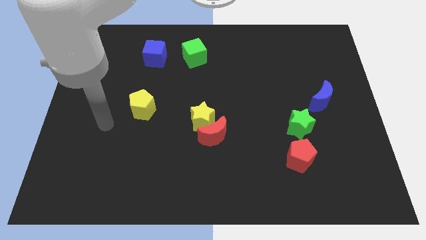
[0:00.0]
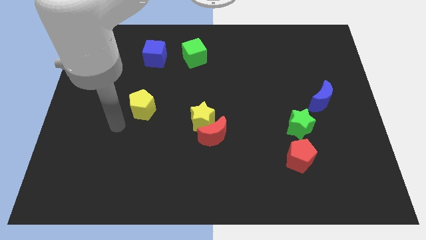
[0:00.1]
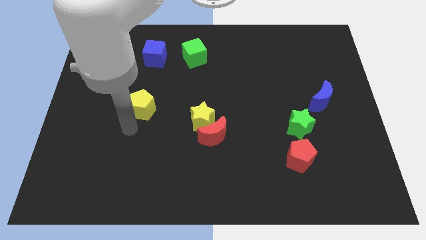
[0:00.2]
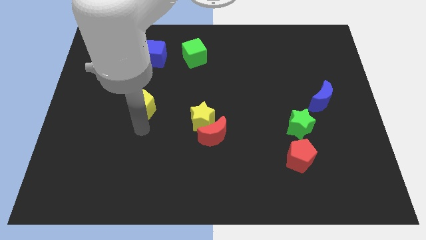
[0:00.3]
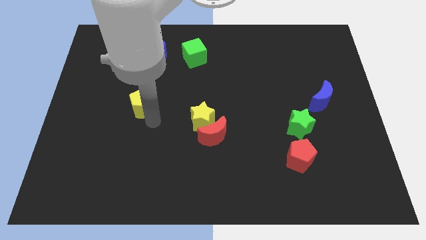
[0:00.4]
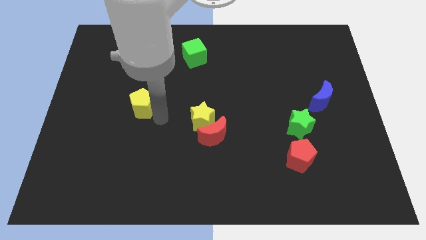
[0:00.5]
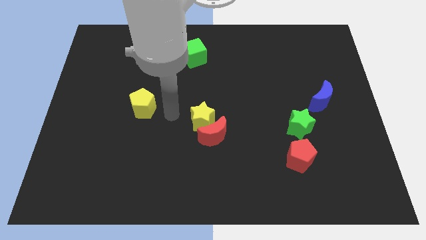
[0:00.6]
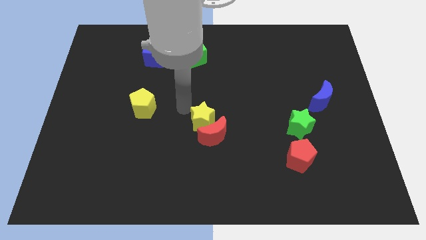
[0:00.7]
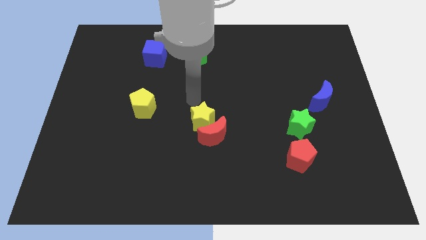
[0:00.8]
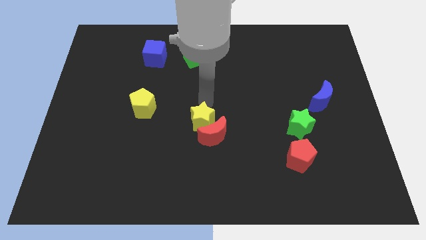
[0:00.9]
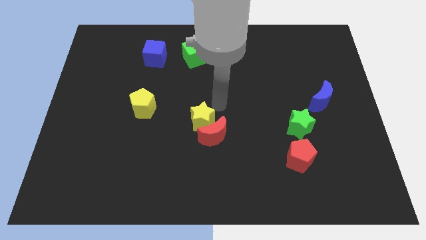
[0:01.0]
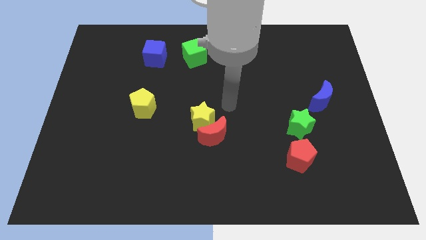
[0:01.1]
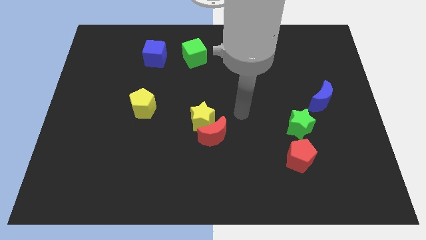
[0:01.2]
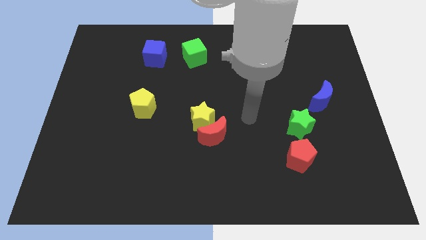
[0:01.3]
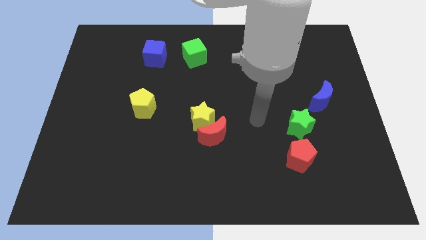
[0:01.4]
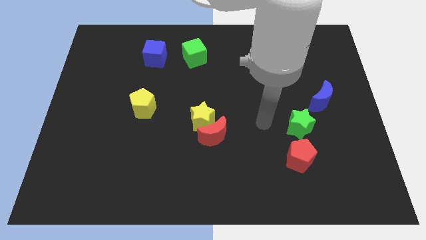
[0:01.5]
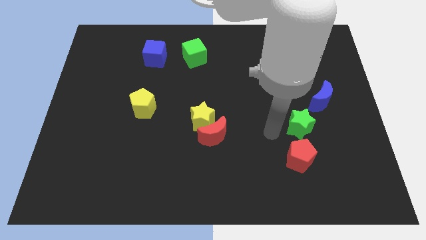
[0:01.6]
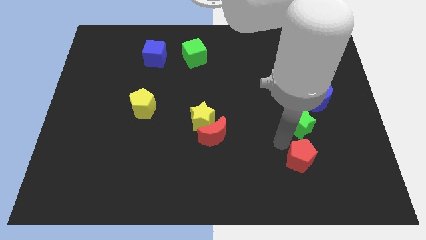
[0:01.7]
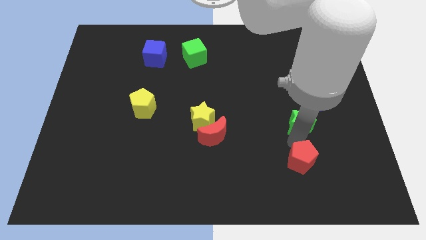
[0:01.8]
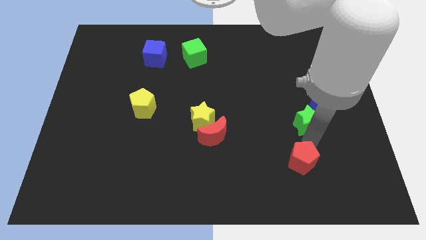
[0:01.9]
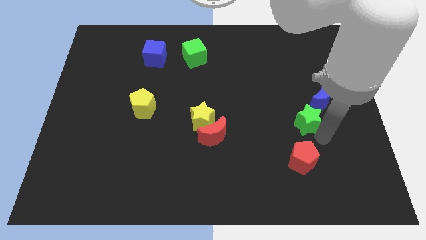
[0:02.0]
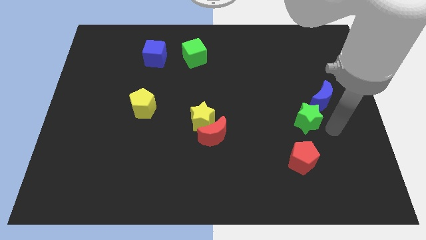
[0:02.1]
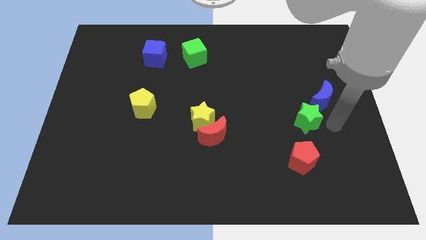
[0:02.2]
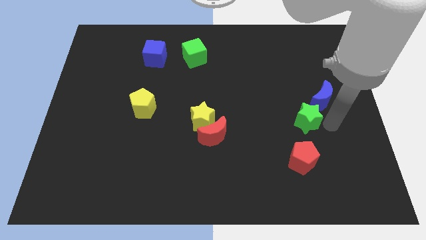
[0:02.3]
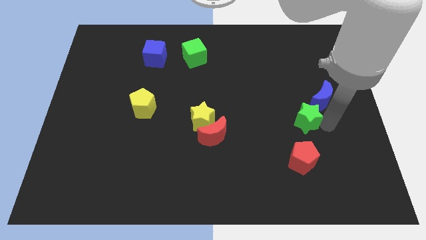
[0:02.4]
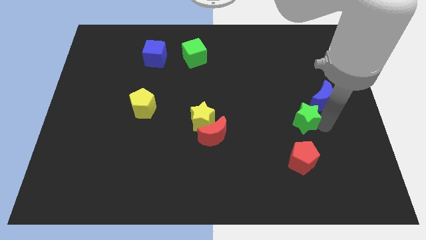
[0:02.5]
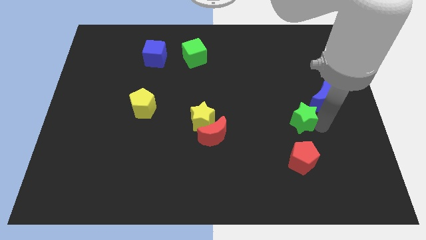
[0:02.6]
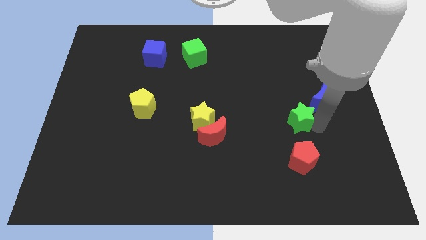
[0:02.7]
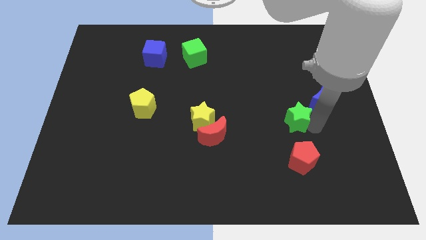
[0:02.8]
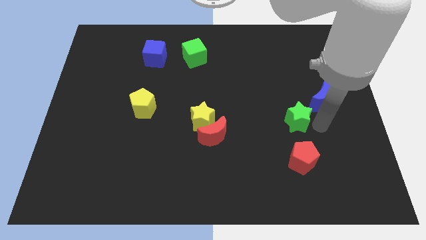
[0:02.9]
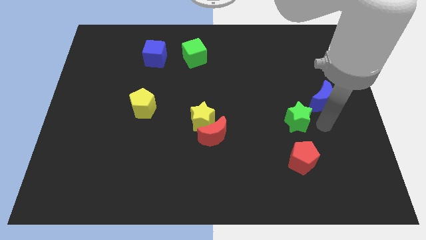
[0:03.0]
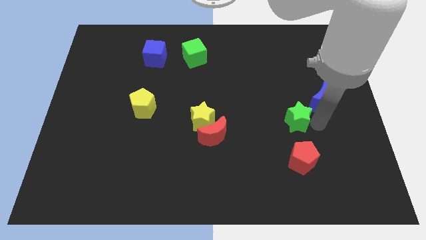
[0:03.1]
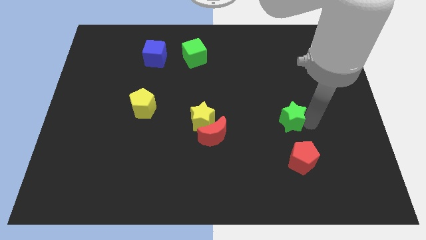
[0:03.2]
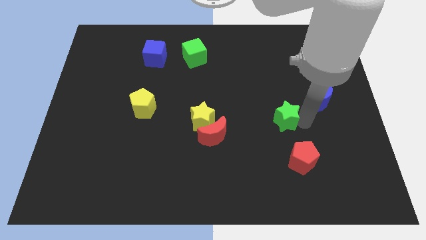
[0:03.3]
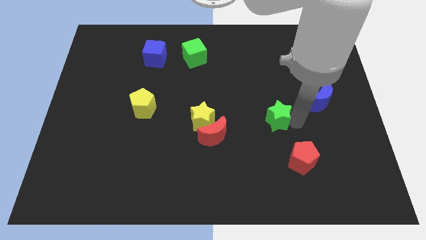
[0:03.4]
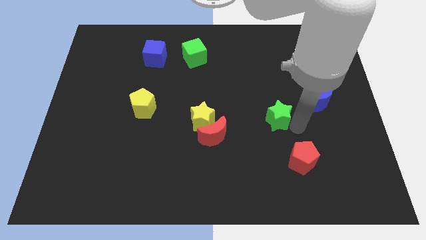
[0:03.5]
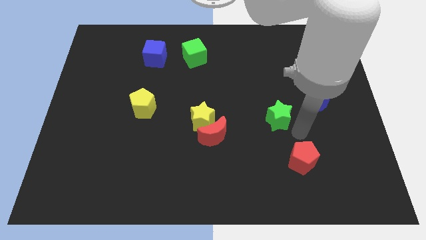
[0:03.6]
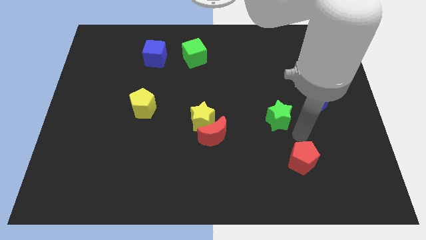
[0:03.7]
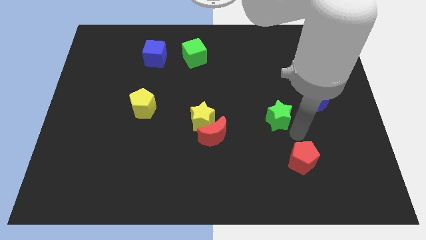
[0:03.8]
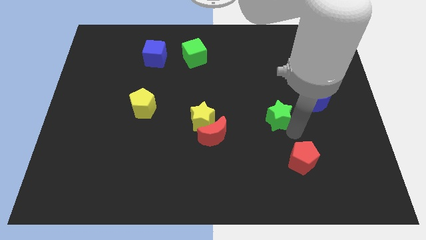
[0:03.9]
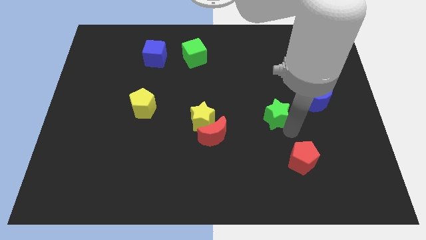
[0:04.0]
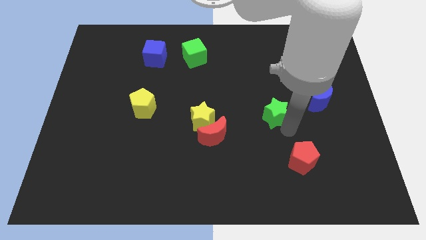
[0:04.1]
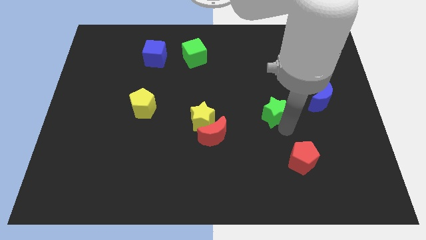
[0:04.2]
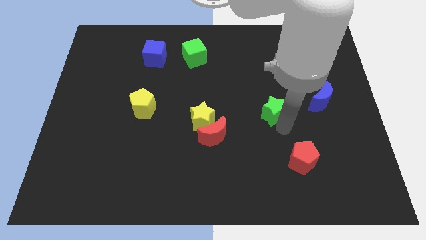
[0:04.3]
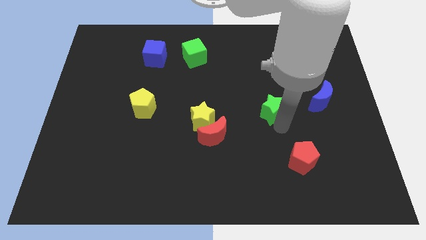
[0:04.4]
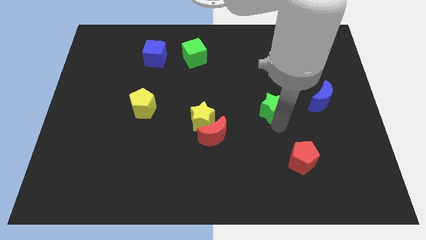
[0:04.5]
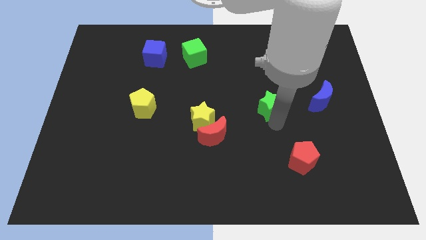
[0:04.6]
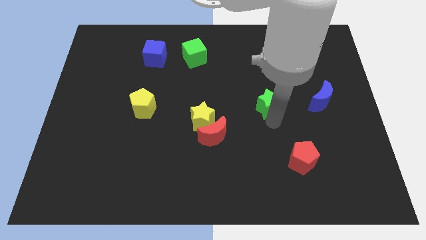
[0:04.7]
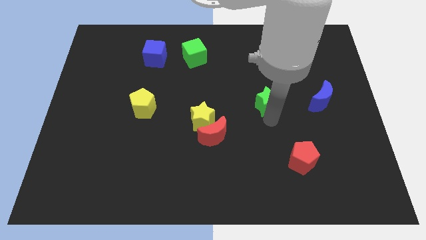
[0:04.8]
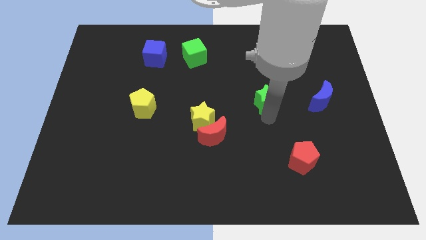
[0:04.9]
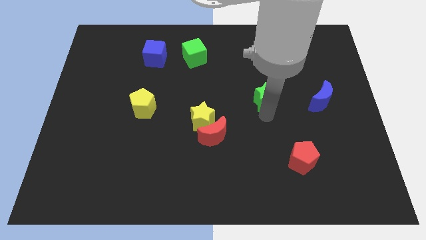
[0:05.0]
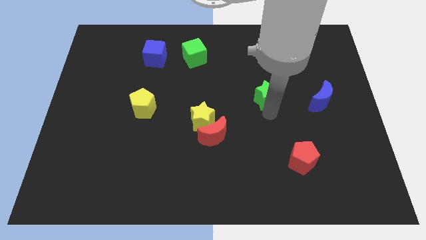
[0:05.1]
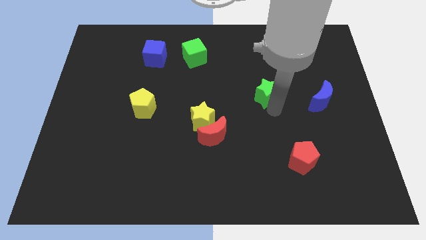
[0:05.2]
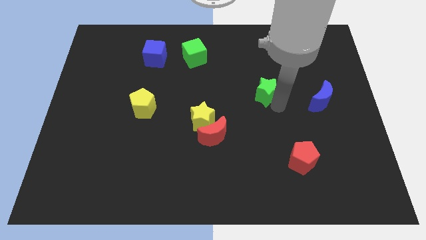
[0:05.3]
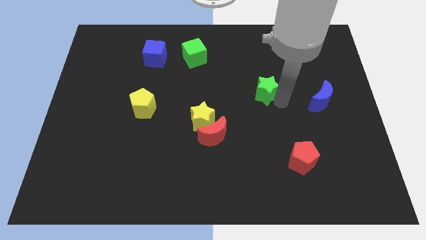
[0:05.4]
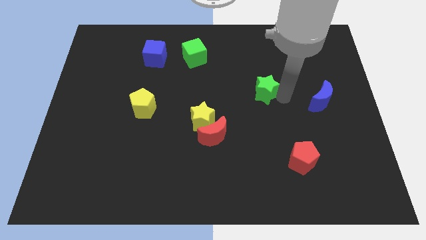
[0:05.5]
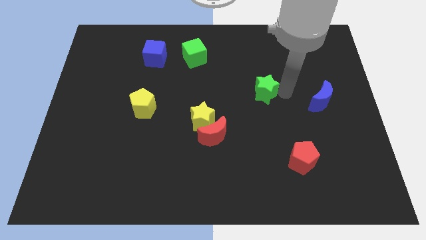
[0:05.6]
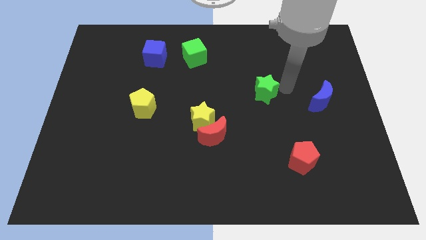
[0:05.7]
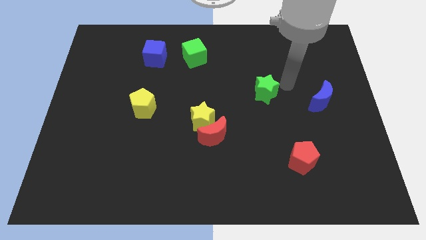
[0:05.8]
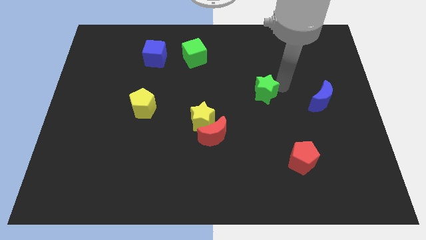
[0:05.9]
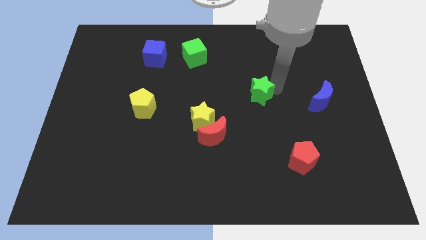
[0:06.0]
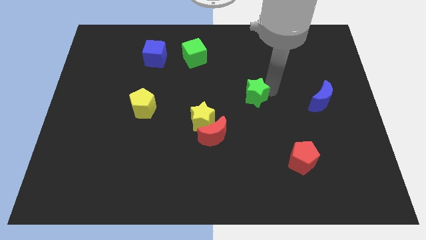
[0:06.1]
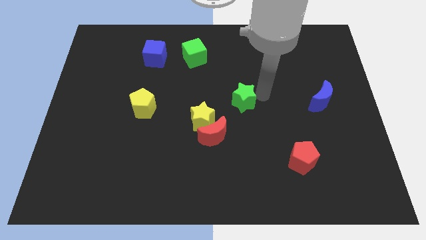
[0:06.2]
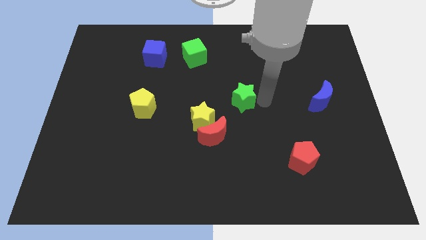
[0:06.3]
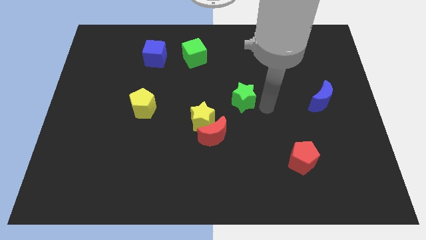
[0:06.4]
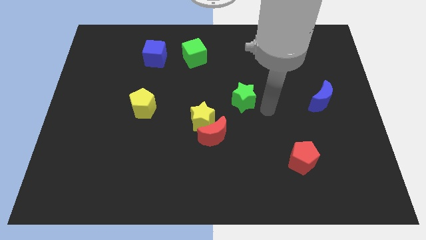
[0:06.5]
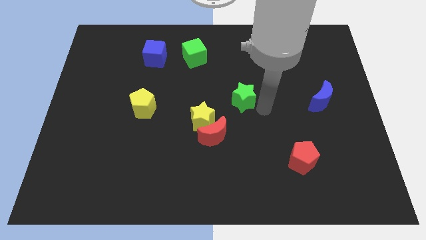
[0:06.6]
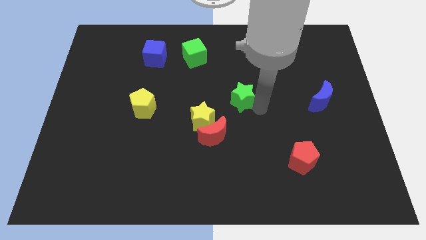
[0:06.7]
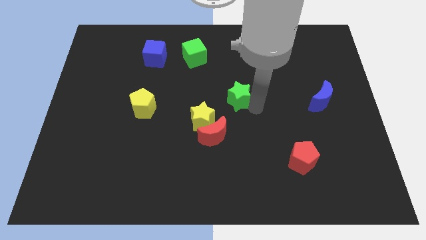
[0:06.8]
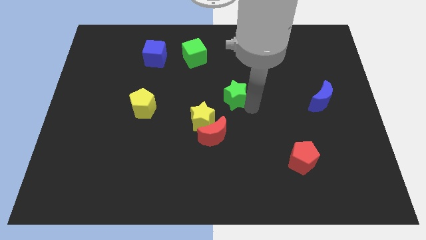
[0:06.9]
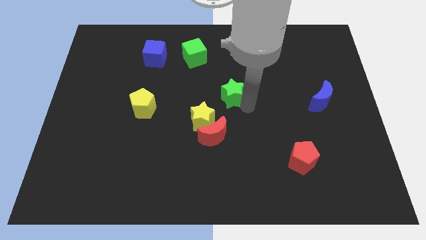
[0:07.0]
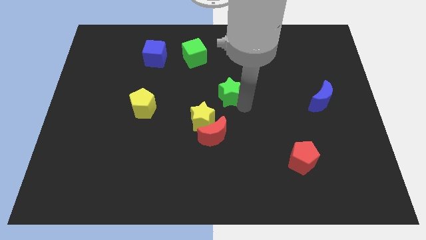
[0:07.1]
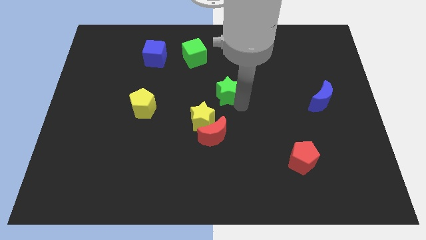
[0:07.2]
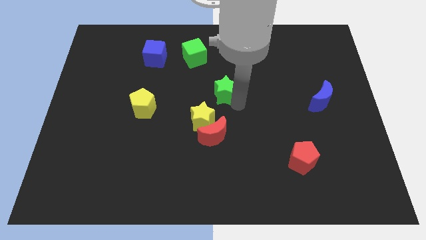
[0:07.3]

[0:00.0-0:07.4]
put the green star to the top of the yellow star
